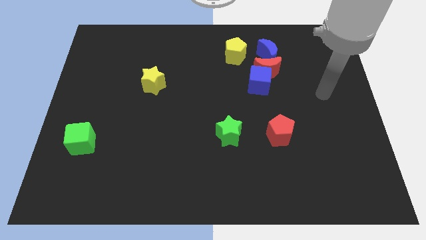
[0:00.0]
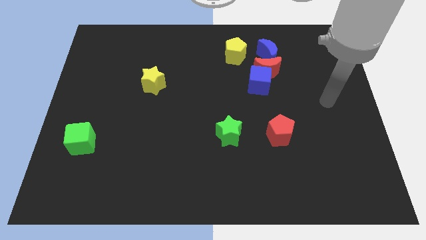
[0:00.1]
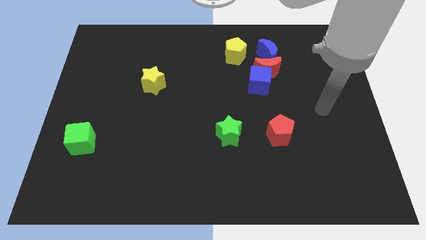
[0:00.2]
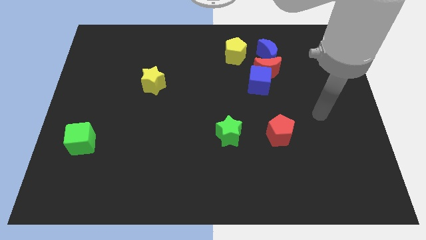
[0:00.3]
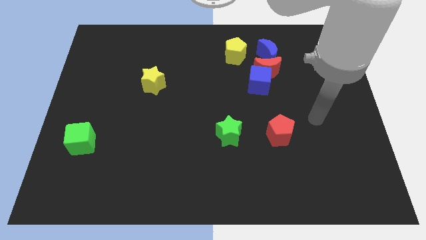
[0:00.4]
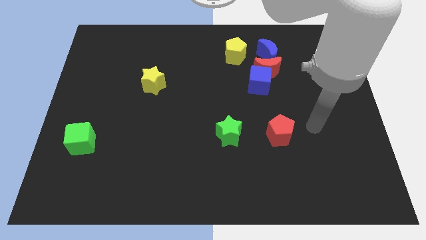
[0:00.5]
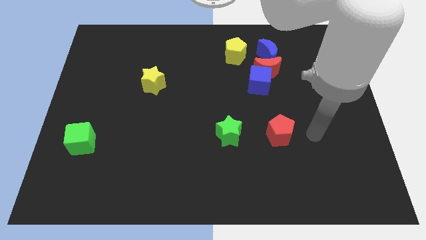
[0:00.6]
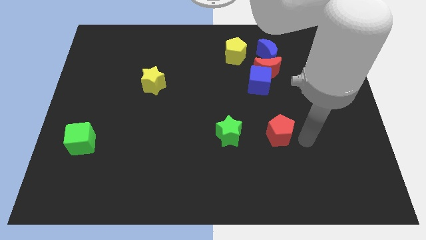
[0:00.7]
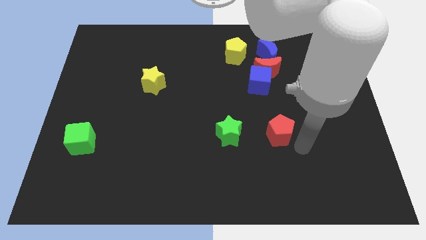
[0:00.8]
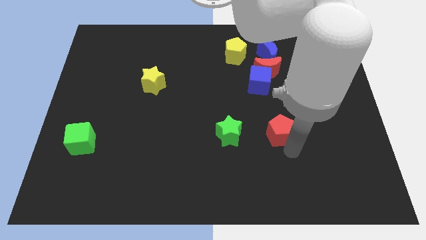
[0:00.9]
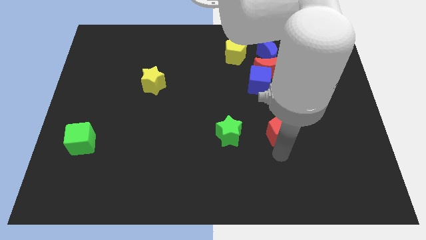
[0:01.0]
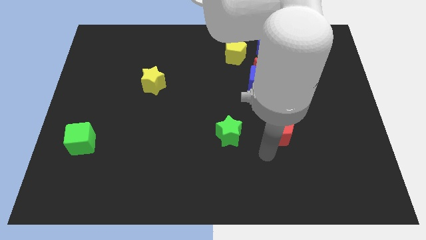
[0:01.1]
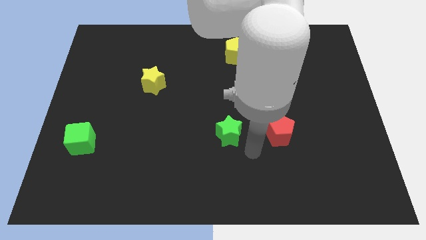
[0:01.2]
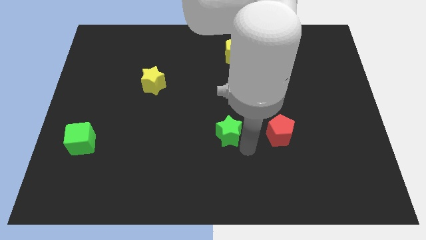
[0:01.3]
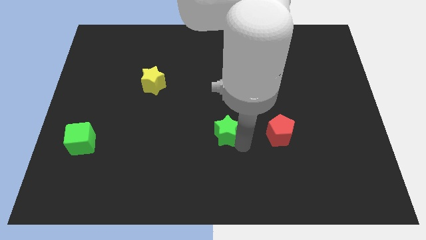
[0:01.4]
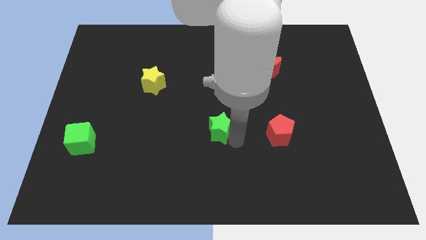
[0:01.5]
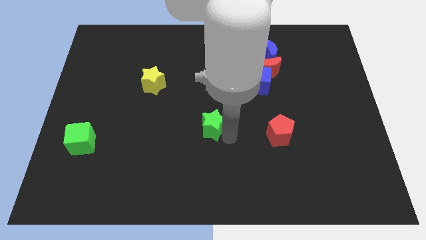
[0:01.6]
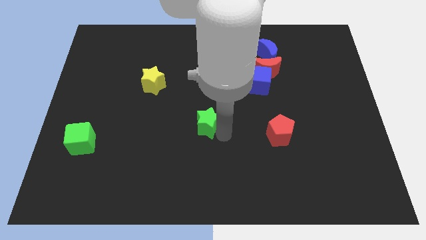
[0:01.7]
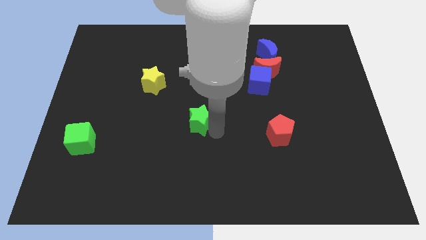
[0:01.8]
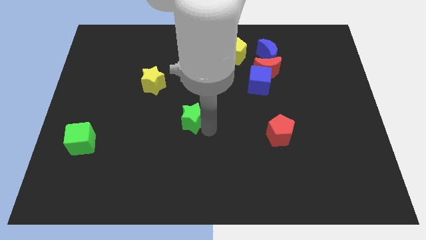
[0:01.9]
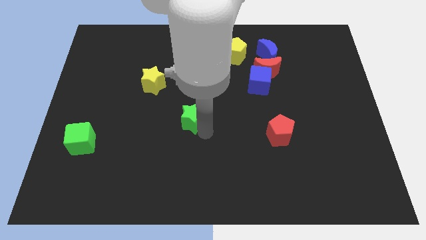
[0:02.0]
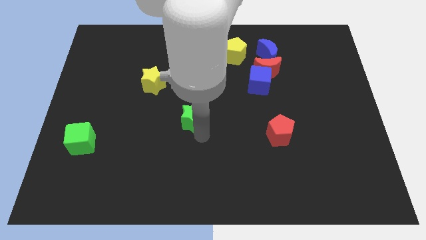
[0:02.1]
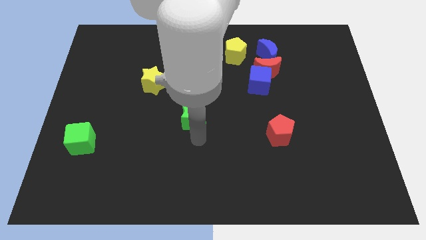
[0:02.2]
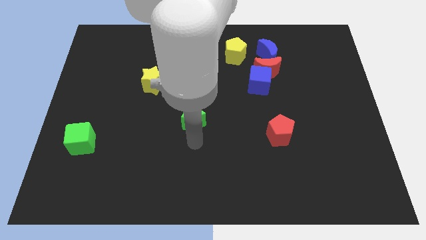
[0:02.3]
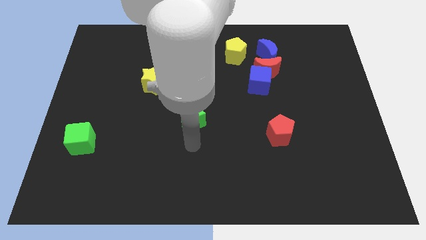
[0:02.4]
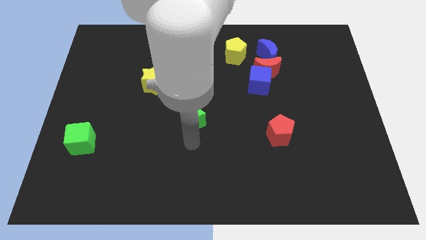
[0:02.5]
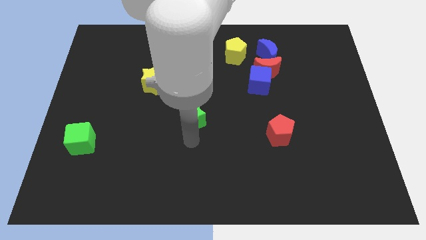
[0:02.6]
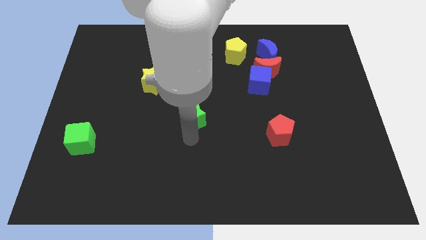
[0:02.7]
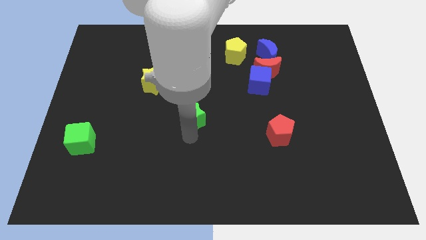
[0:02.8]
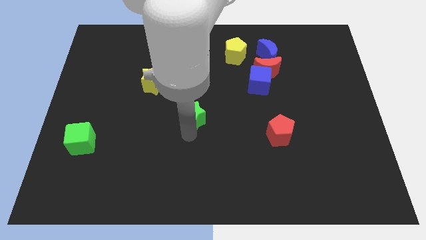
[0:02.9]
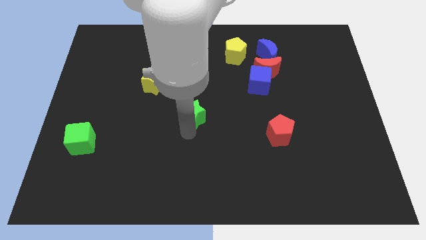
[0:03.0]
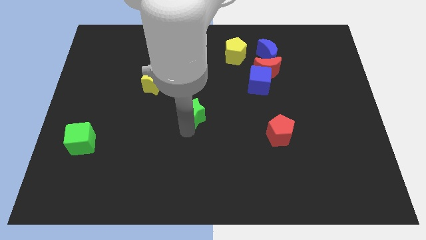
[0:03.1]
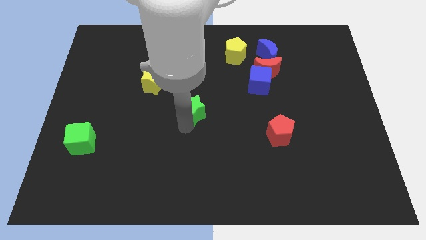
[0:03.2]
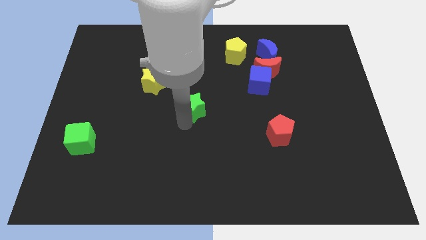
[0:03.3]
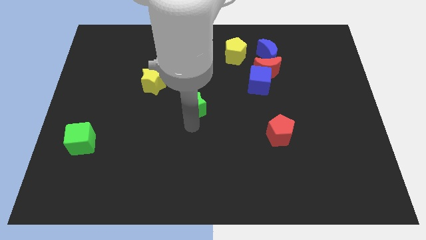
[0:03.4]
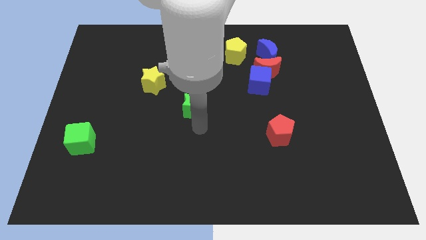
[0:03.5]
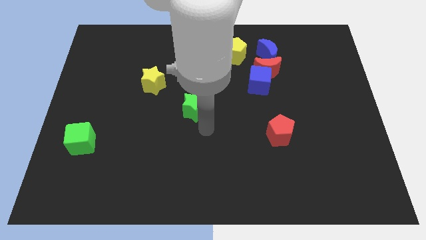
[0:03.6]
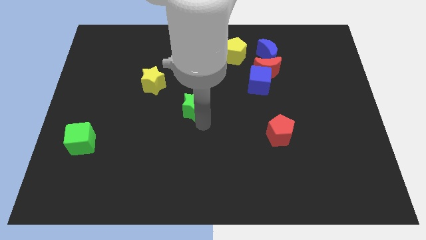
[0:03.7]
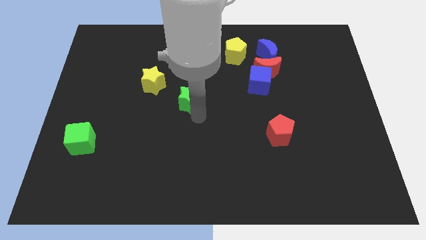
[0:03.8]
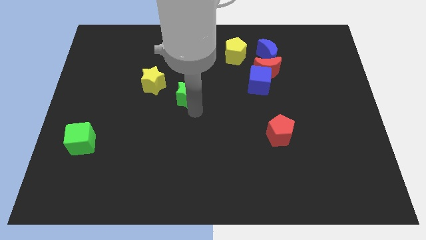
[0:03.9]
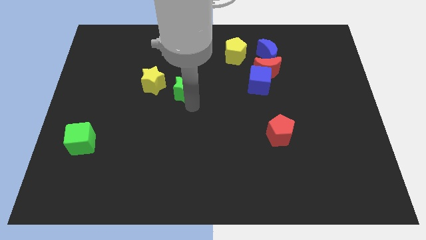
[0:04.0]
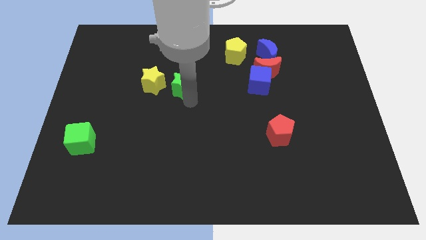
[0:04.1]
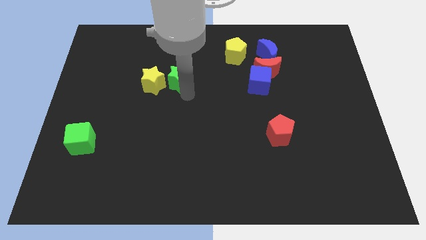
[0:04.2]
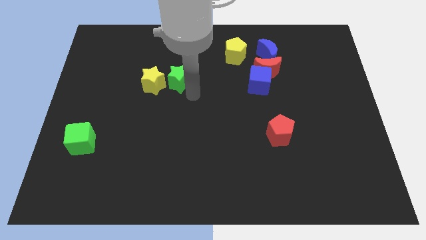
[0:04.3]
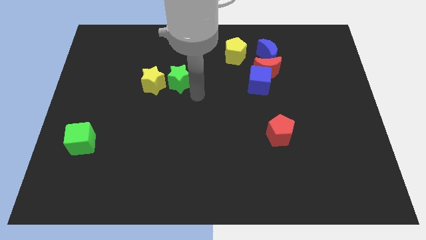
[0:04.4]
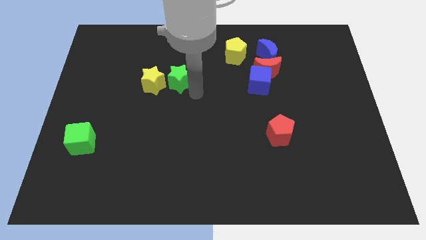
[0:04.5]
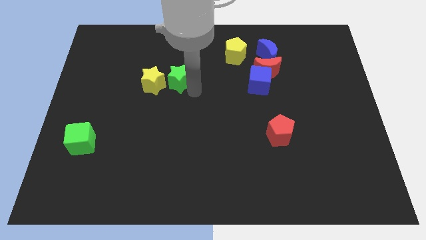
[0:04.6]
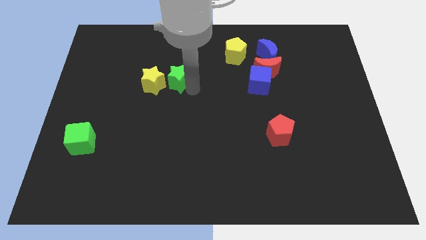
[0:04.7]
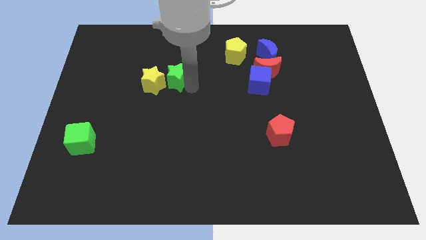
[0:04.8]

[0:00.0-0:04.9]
slide the green star upwards and to the left

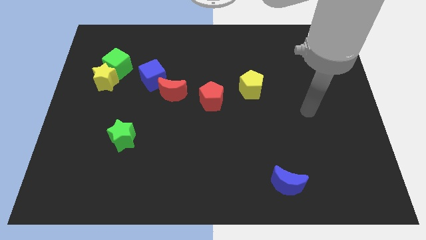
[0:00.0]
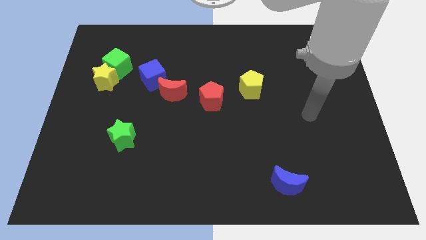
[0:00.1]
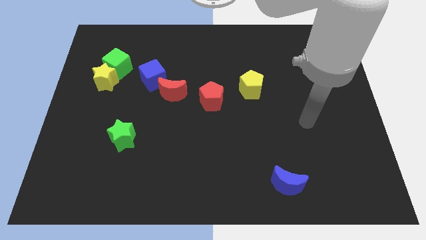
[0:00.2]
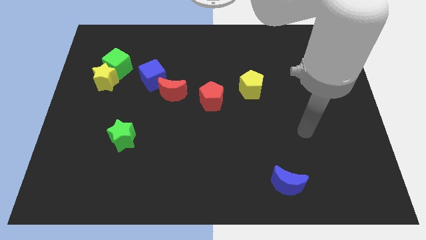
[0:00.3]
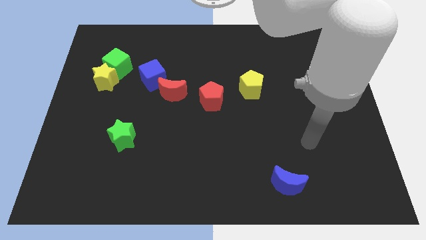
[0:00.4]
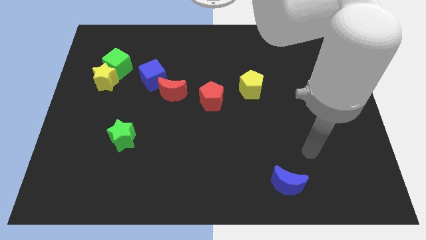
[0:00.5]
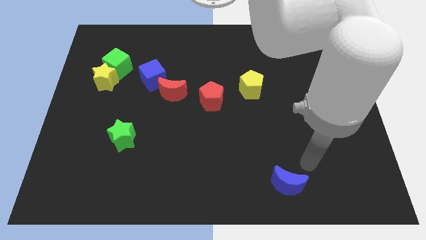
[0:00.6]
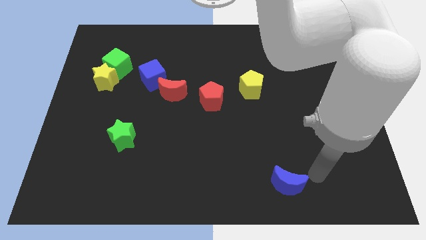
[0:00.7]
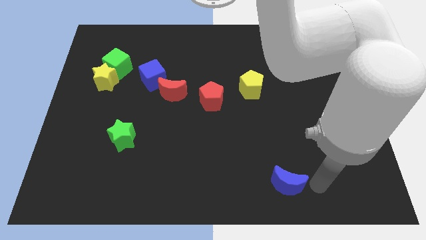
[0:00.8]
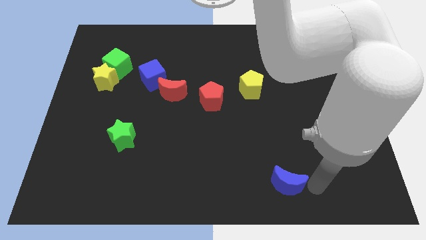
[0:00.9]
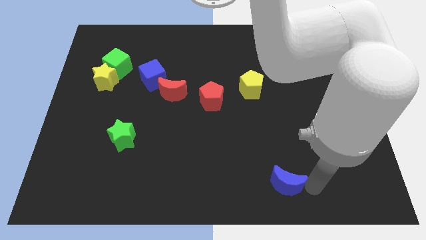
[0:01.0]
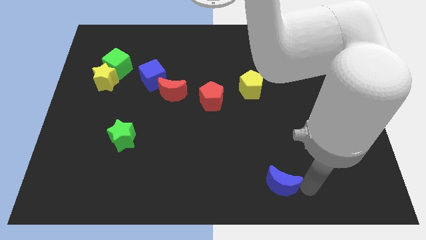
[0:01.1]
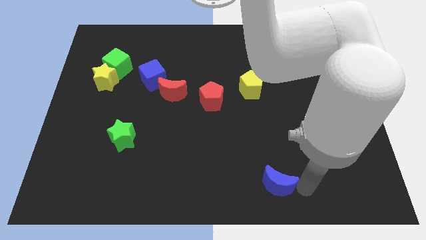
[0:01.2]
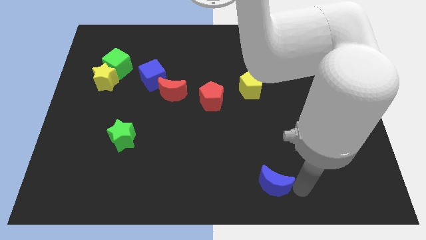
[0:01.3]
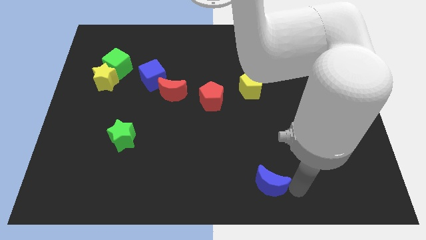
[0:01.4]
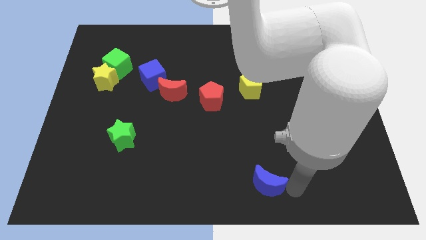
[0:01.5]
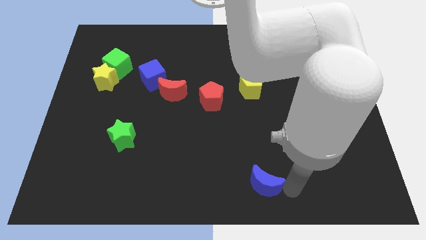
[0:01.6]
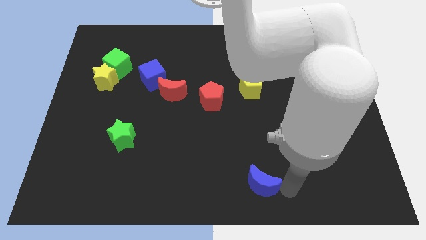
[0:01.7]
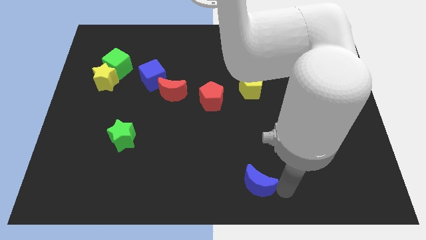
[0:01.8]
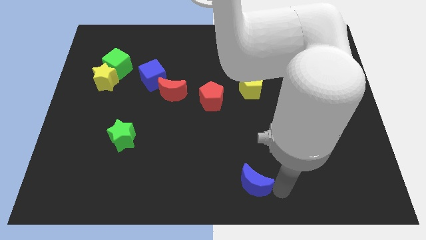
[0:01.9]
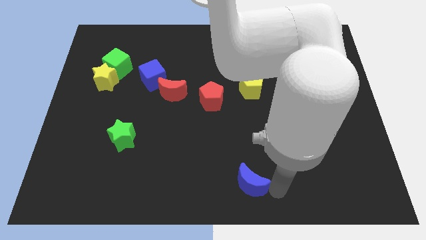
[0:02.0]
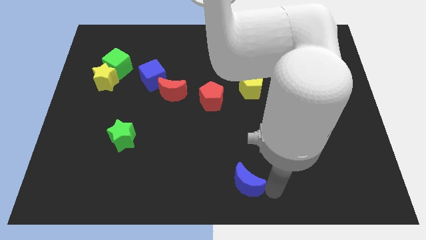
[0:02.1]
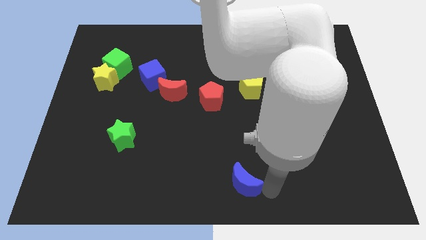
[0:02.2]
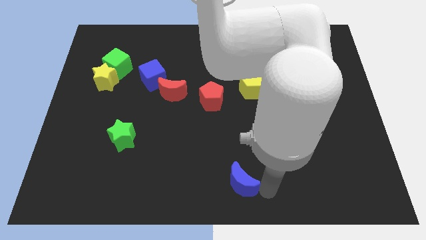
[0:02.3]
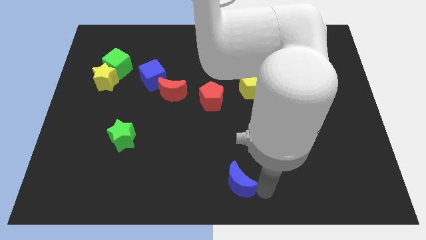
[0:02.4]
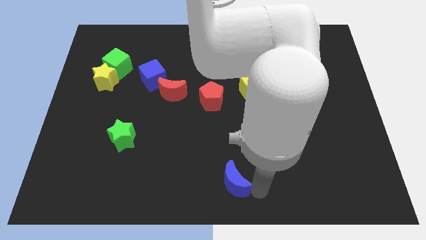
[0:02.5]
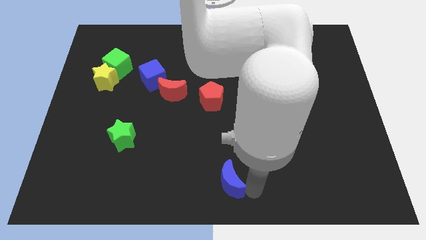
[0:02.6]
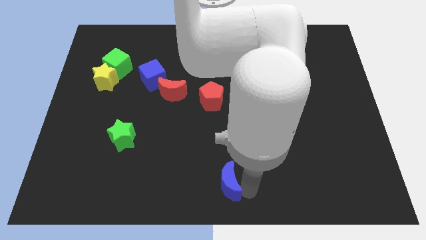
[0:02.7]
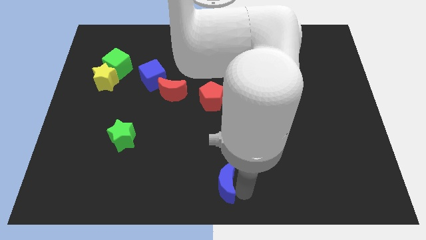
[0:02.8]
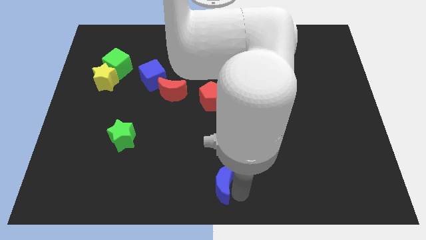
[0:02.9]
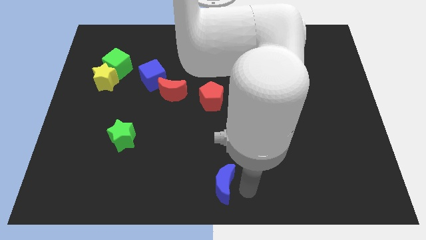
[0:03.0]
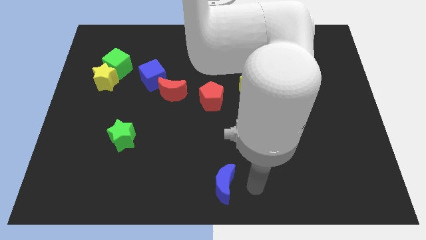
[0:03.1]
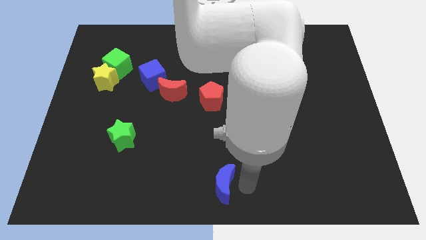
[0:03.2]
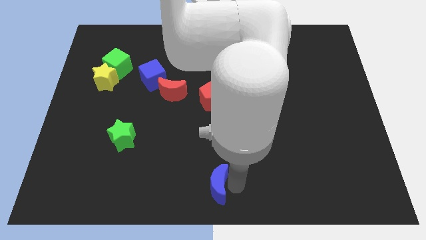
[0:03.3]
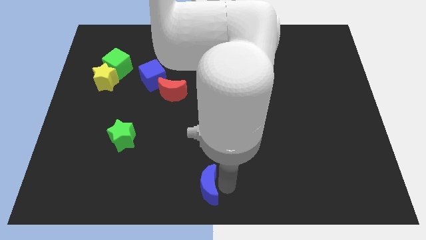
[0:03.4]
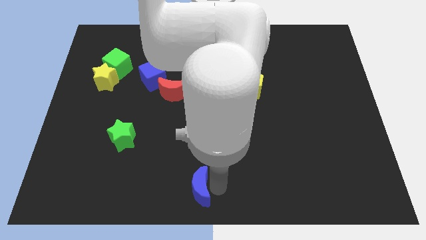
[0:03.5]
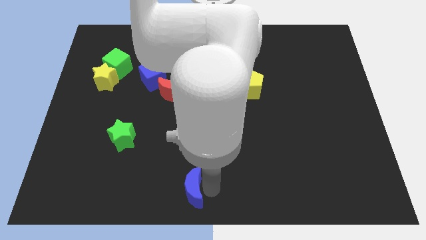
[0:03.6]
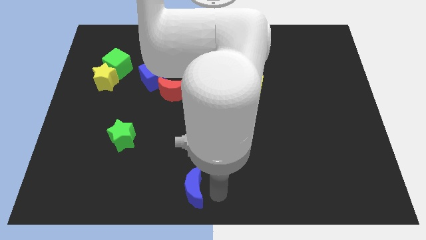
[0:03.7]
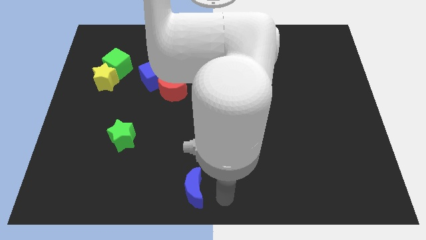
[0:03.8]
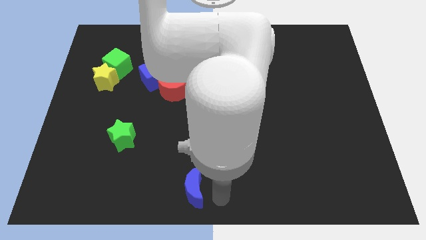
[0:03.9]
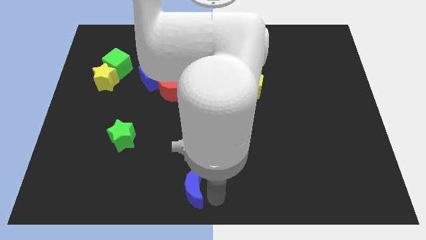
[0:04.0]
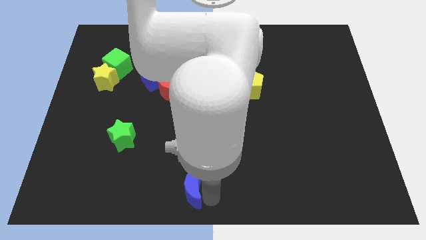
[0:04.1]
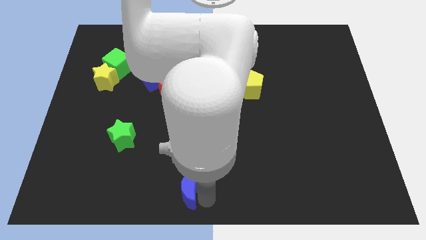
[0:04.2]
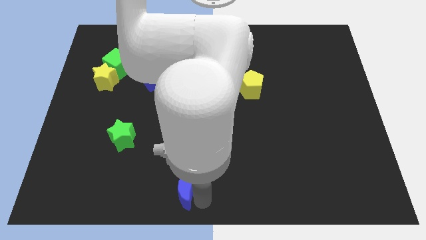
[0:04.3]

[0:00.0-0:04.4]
move the blue moon to the left
